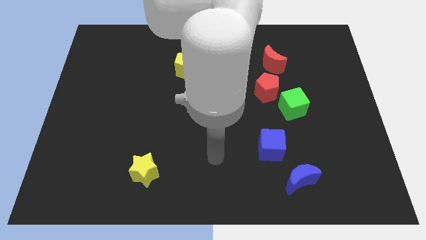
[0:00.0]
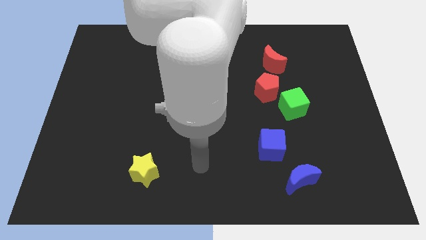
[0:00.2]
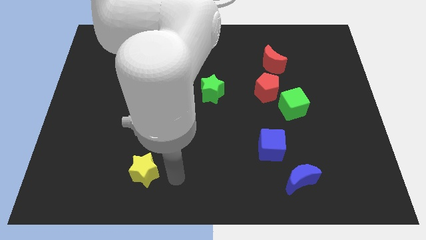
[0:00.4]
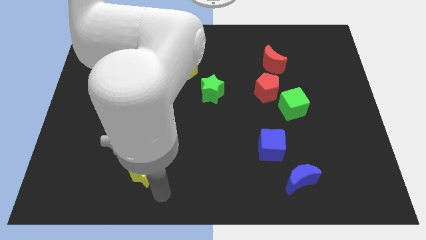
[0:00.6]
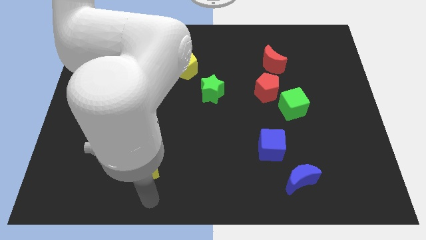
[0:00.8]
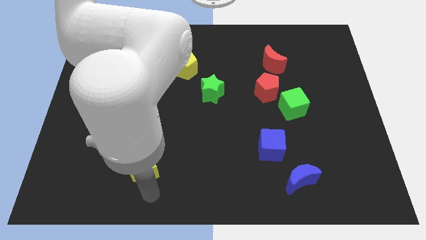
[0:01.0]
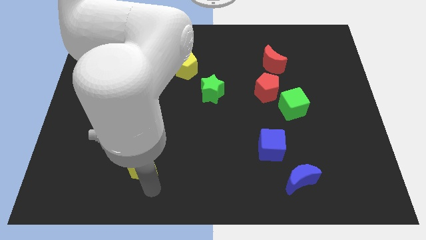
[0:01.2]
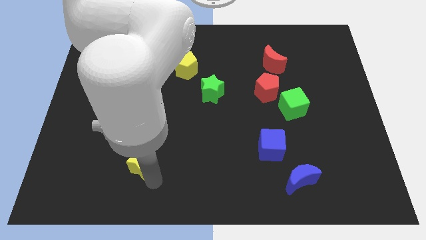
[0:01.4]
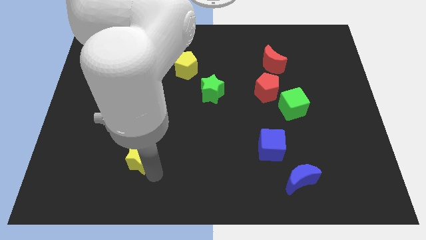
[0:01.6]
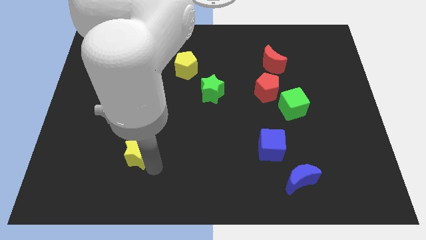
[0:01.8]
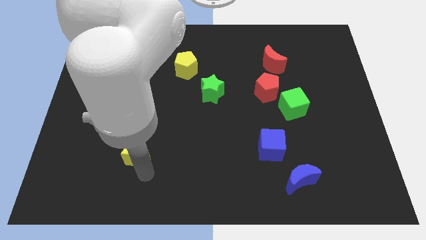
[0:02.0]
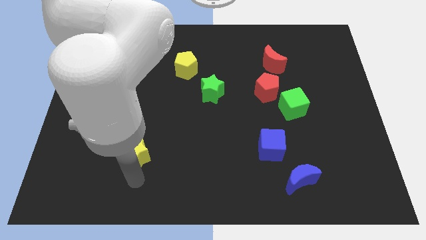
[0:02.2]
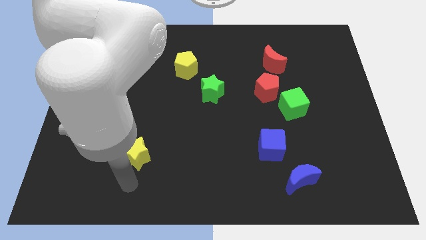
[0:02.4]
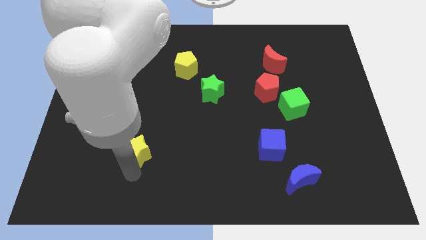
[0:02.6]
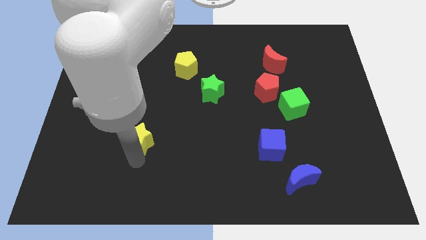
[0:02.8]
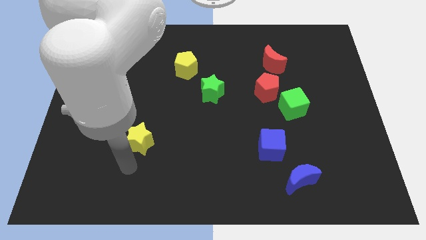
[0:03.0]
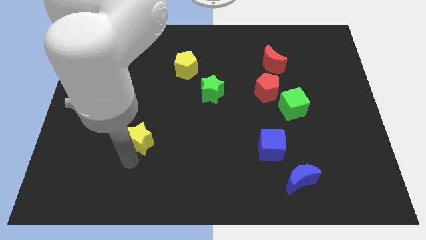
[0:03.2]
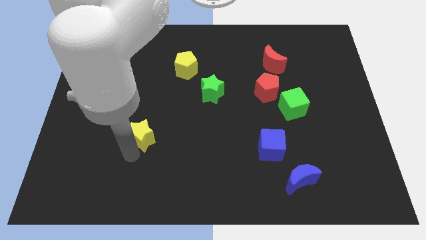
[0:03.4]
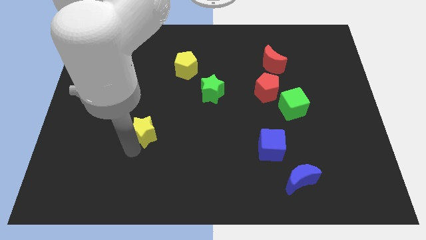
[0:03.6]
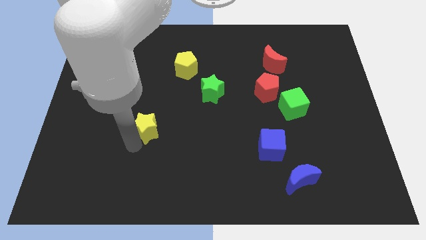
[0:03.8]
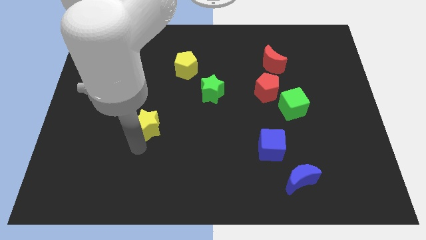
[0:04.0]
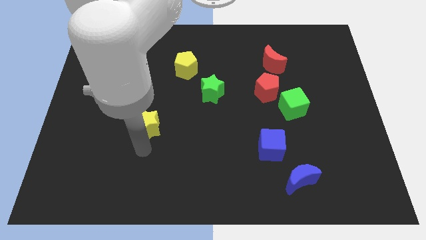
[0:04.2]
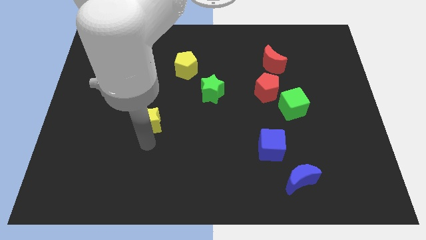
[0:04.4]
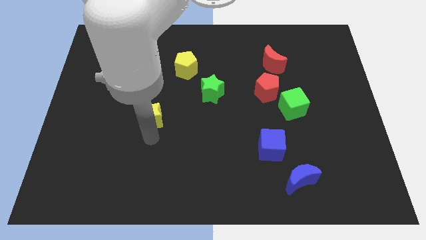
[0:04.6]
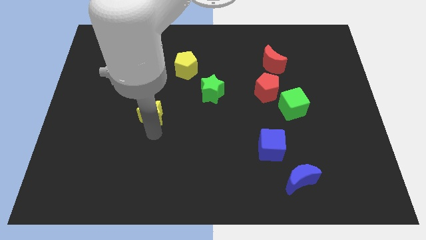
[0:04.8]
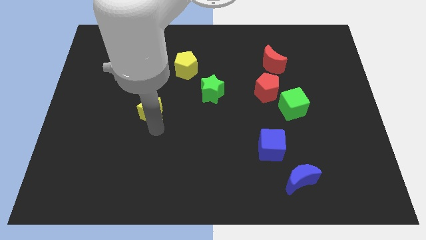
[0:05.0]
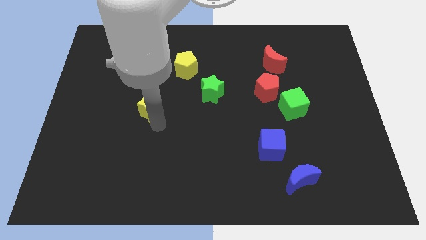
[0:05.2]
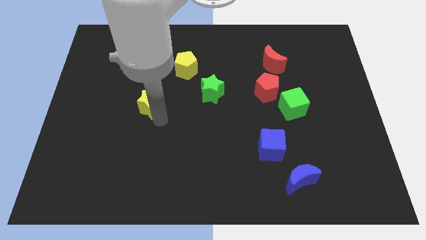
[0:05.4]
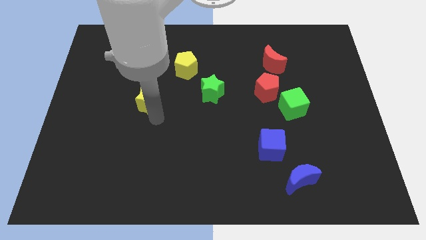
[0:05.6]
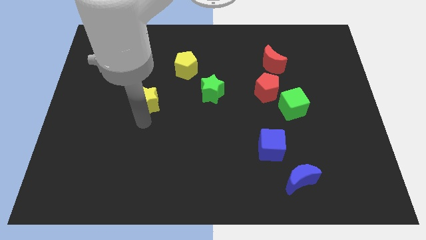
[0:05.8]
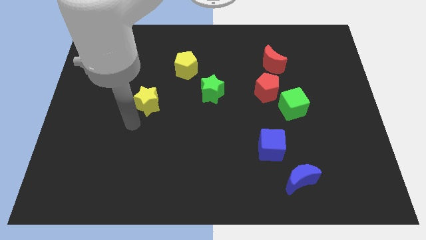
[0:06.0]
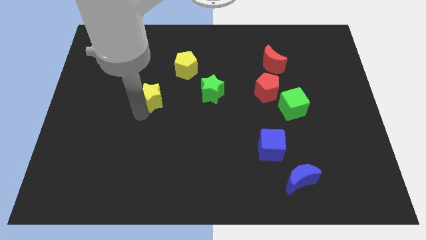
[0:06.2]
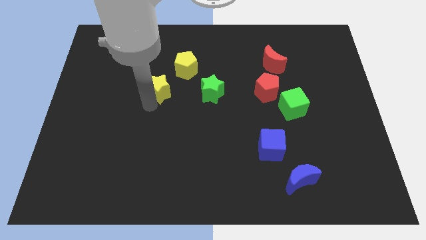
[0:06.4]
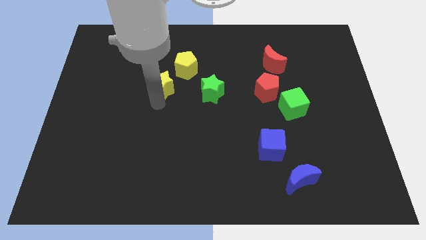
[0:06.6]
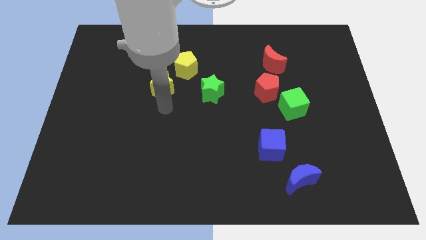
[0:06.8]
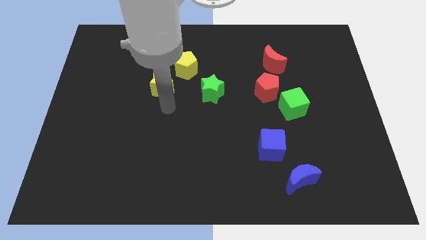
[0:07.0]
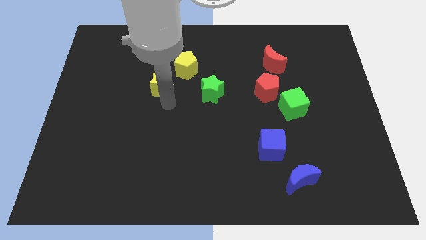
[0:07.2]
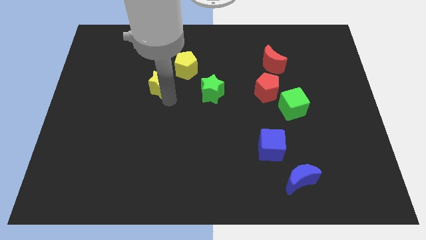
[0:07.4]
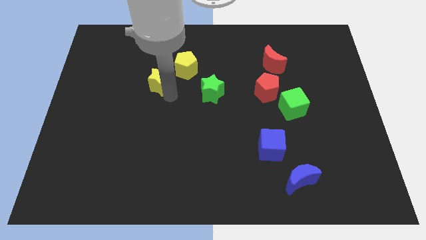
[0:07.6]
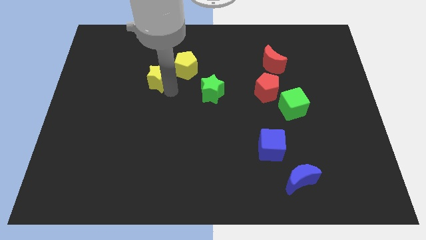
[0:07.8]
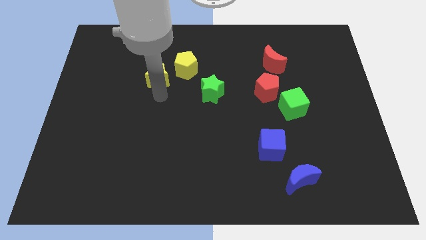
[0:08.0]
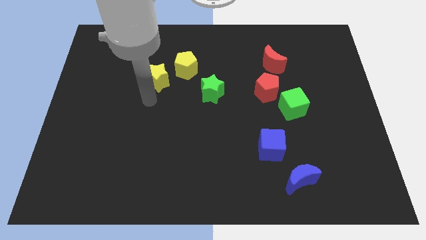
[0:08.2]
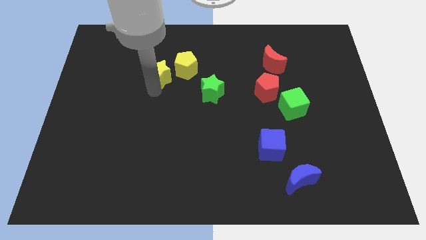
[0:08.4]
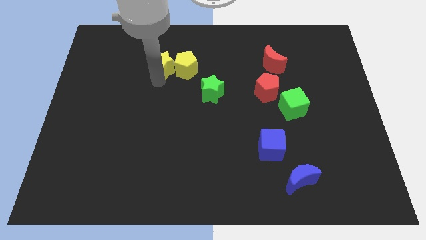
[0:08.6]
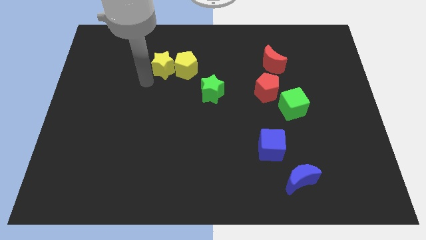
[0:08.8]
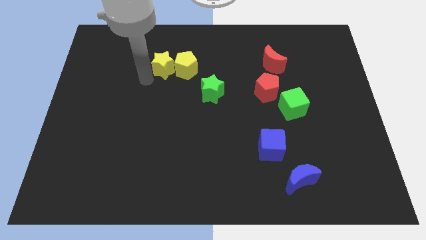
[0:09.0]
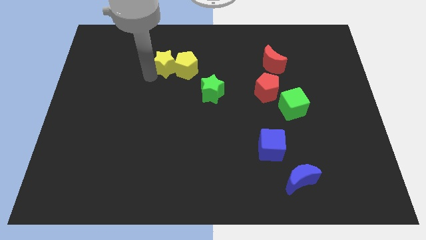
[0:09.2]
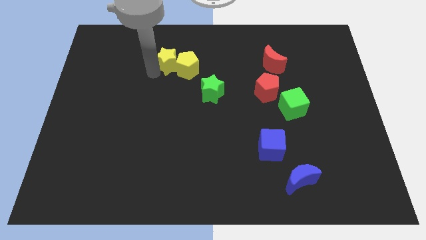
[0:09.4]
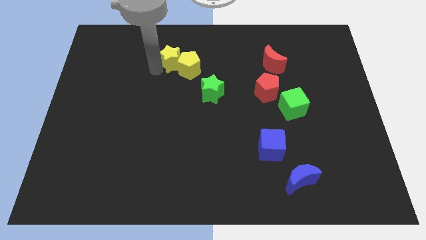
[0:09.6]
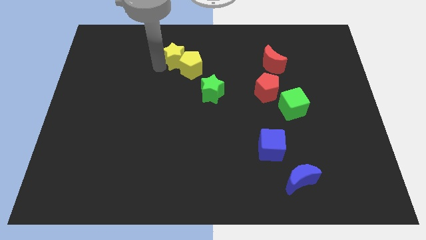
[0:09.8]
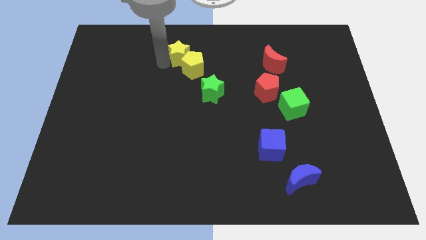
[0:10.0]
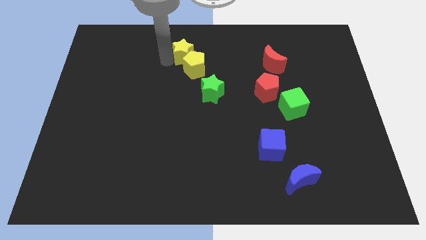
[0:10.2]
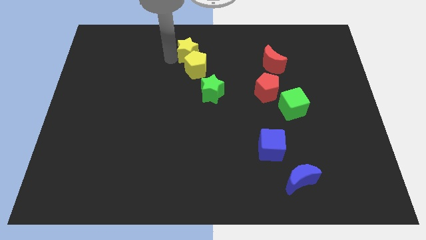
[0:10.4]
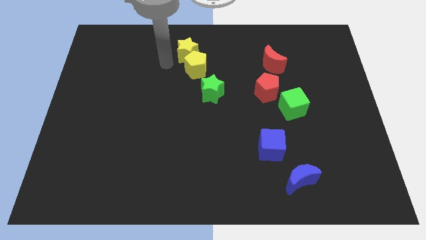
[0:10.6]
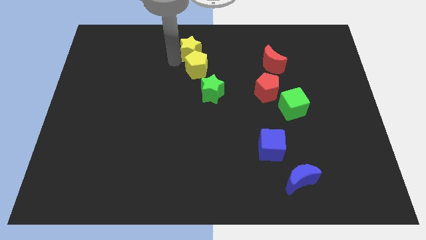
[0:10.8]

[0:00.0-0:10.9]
slide the yellow star to the top

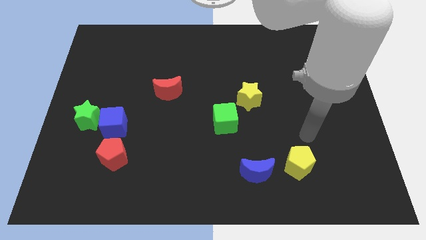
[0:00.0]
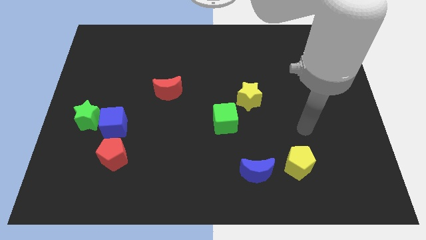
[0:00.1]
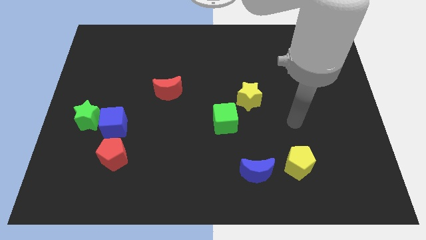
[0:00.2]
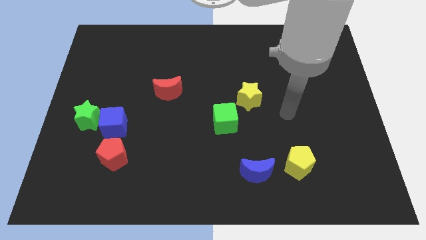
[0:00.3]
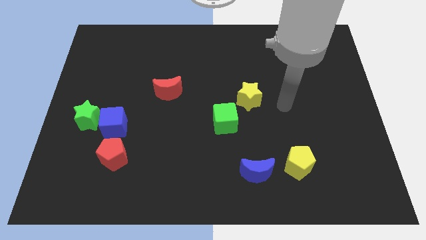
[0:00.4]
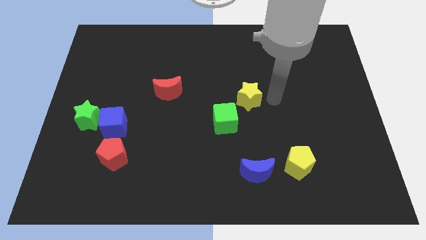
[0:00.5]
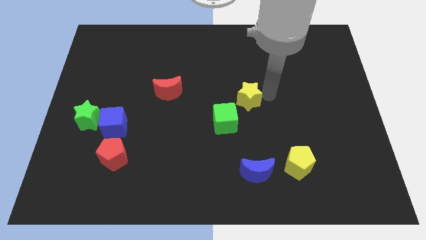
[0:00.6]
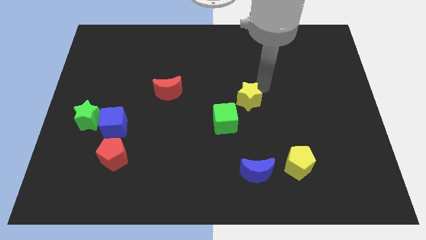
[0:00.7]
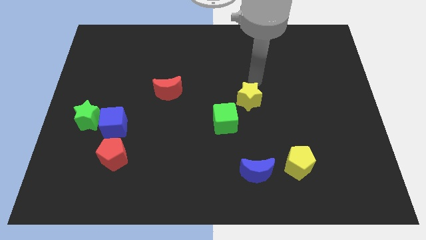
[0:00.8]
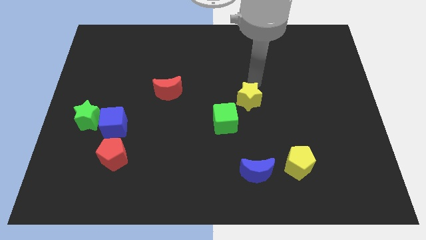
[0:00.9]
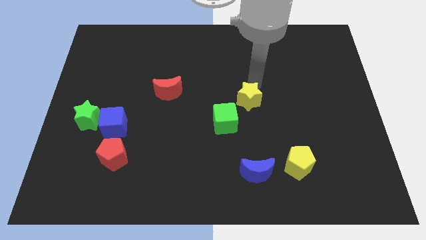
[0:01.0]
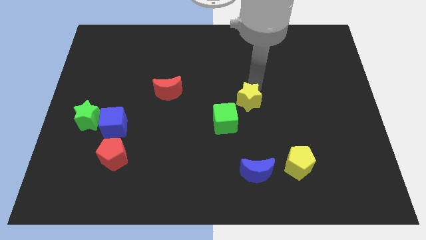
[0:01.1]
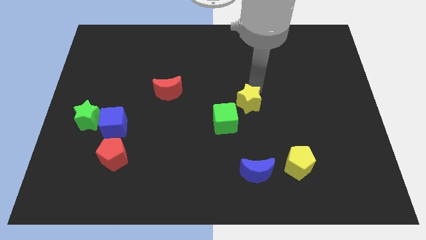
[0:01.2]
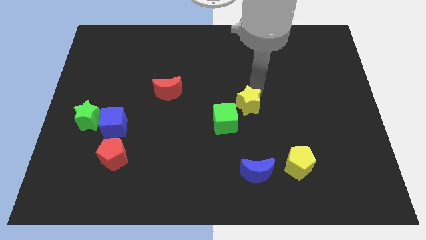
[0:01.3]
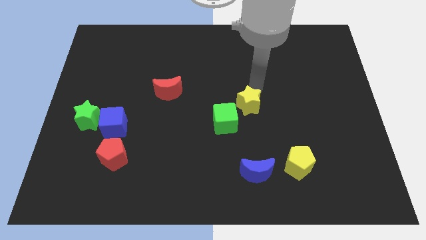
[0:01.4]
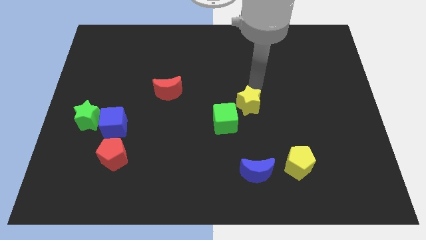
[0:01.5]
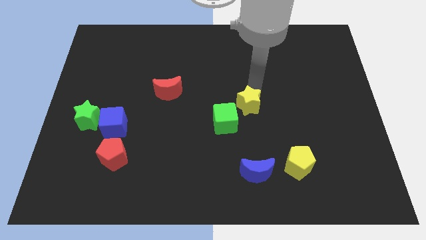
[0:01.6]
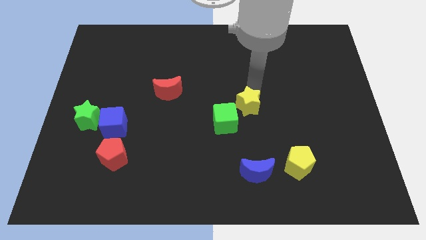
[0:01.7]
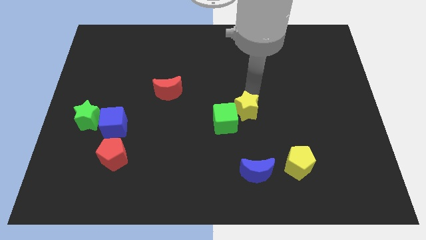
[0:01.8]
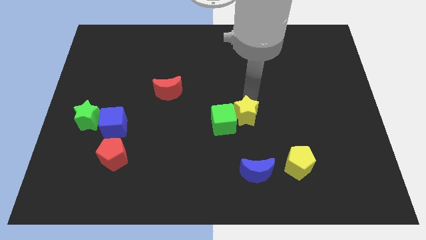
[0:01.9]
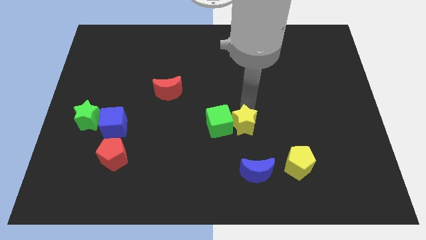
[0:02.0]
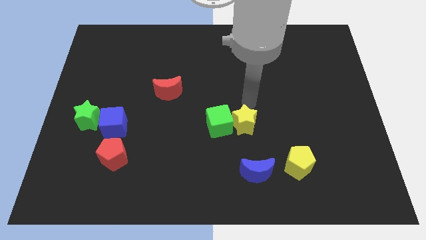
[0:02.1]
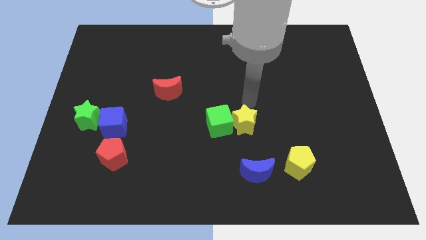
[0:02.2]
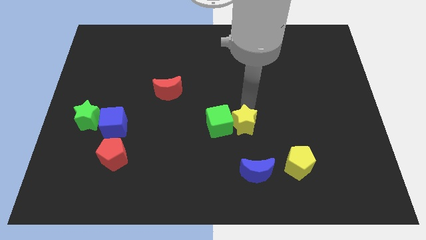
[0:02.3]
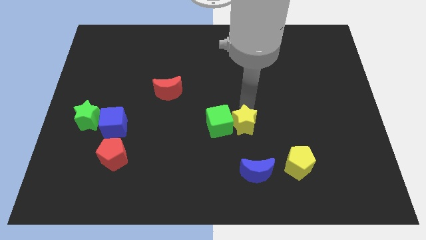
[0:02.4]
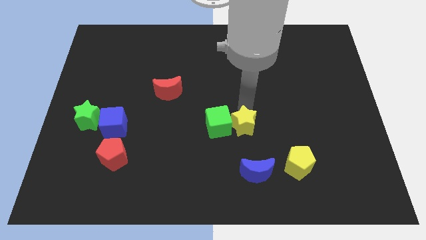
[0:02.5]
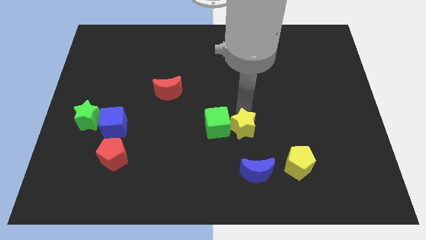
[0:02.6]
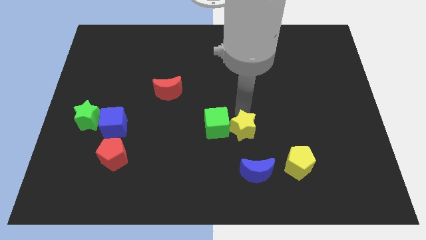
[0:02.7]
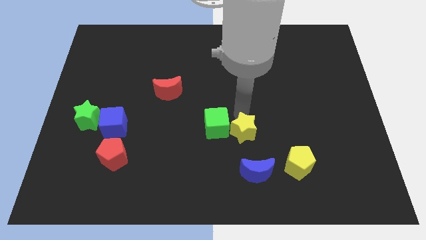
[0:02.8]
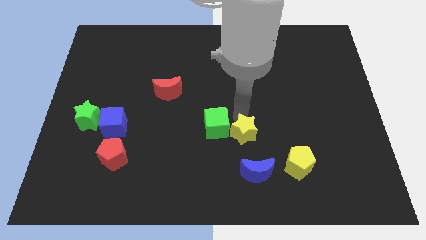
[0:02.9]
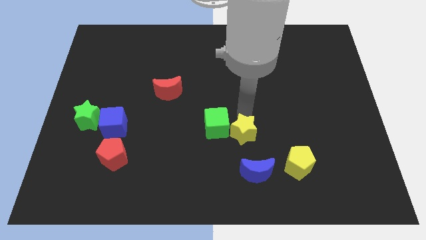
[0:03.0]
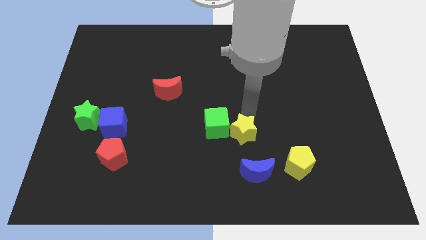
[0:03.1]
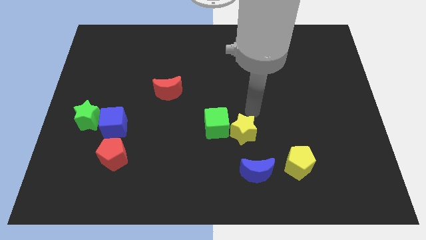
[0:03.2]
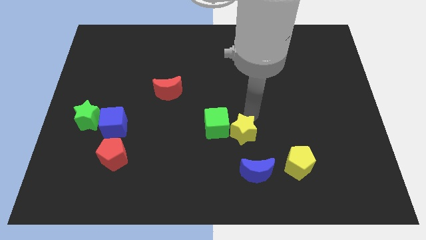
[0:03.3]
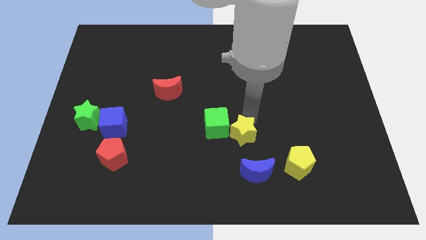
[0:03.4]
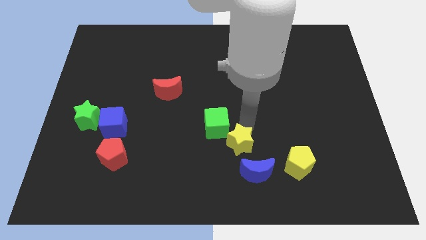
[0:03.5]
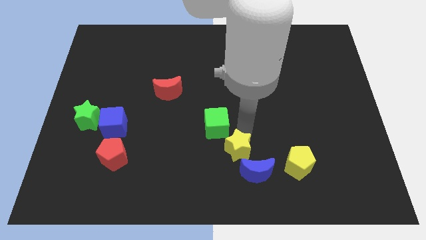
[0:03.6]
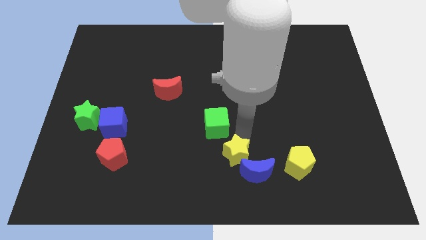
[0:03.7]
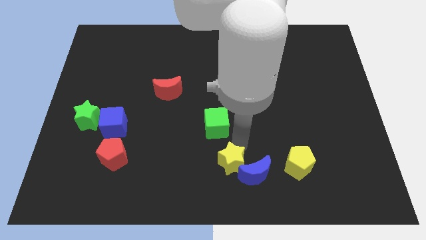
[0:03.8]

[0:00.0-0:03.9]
move the yellow star to the bottom side
